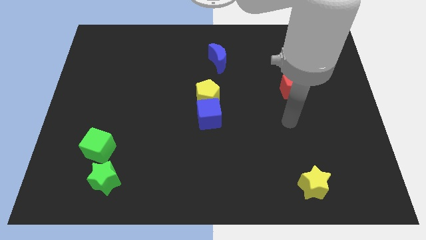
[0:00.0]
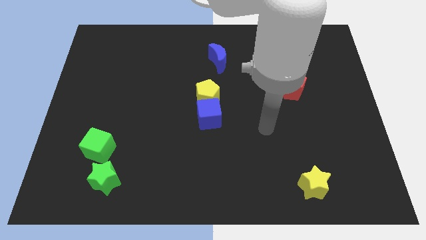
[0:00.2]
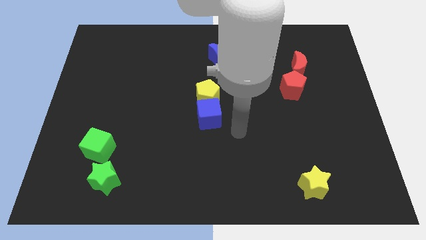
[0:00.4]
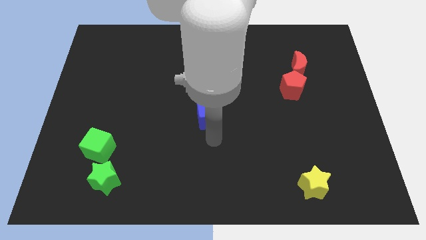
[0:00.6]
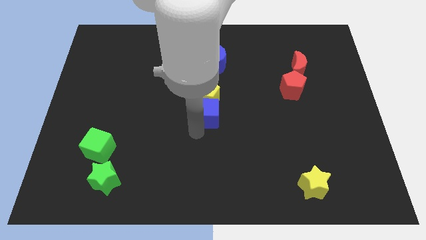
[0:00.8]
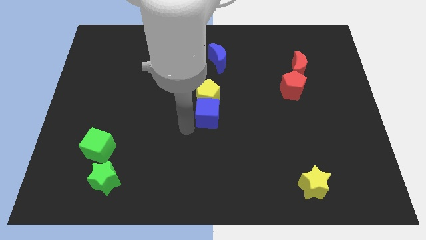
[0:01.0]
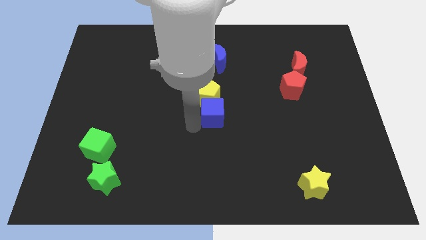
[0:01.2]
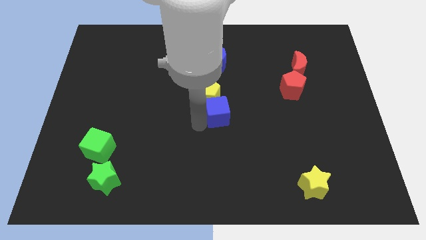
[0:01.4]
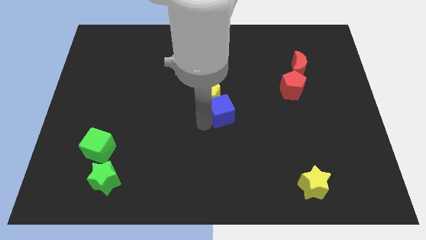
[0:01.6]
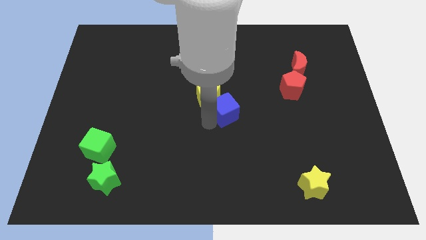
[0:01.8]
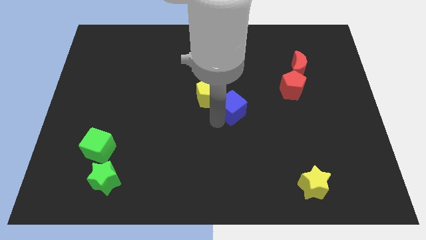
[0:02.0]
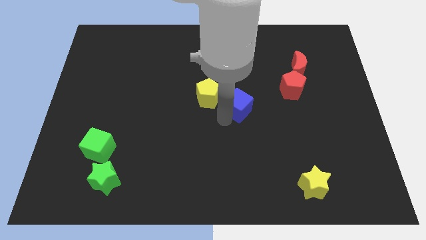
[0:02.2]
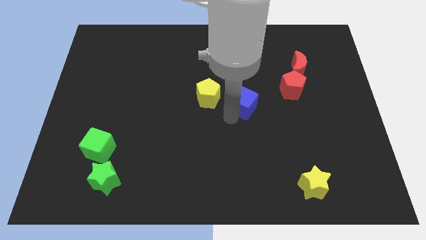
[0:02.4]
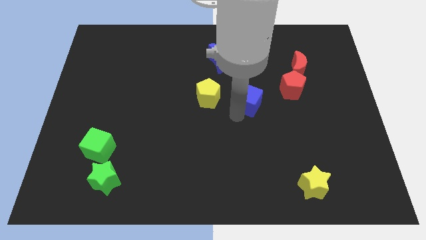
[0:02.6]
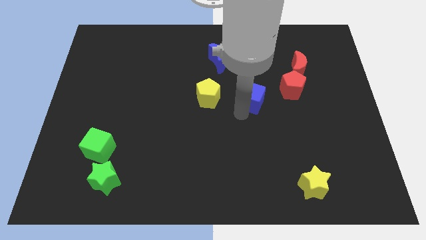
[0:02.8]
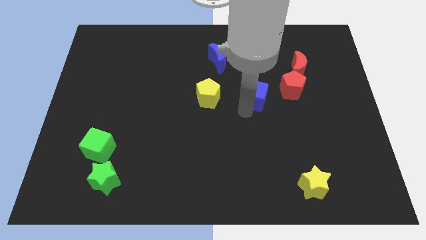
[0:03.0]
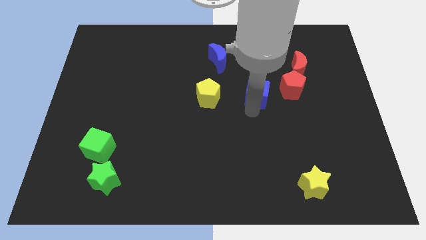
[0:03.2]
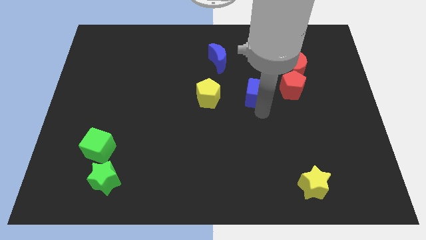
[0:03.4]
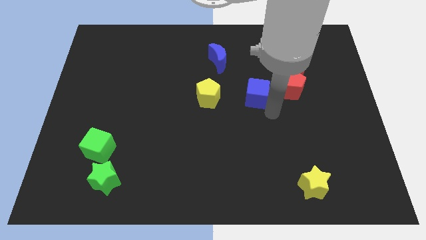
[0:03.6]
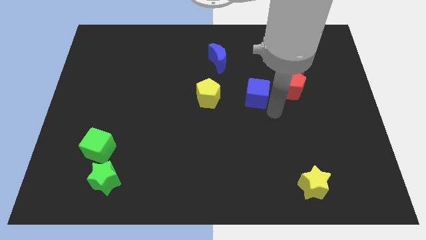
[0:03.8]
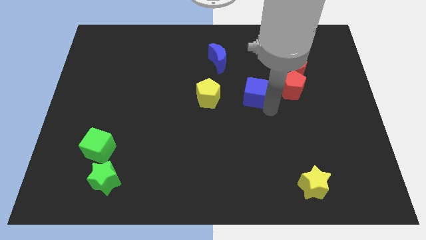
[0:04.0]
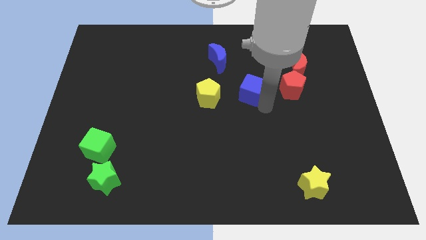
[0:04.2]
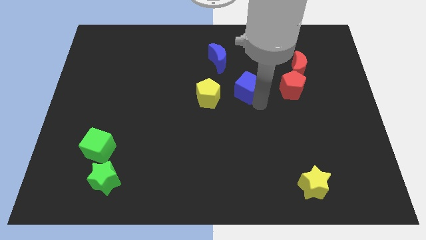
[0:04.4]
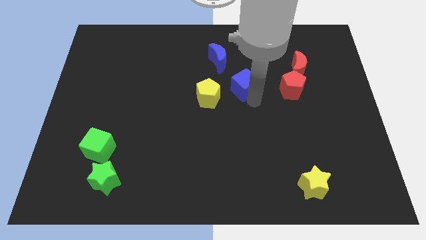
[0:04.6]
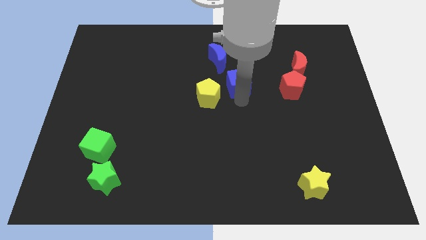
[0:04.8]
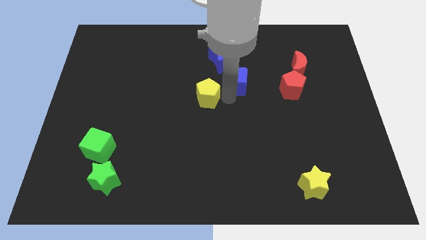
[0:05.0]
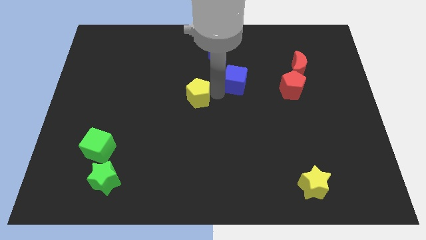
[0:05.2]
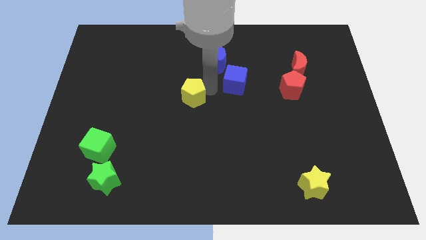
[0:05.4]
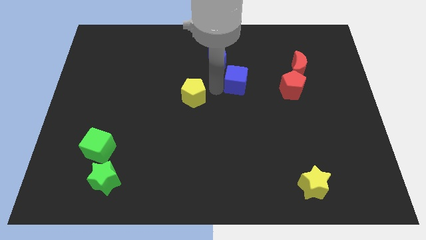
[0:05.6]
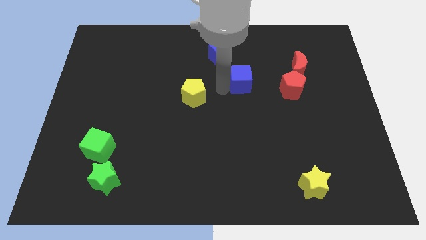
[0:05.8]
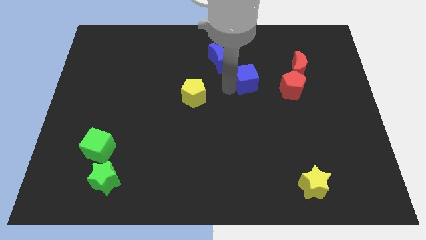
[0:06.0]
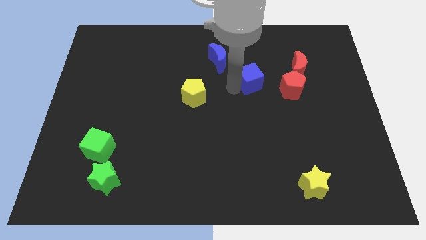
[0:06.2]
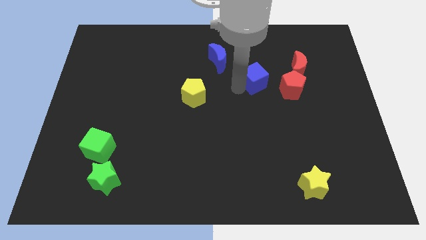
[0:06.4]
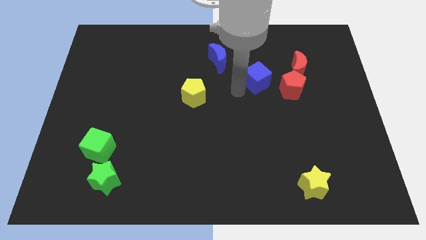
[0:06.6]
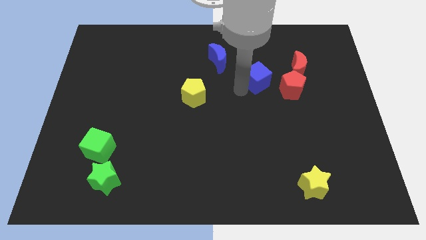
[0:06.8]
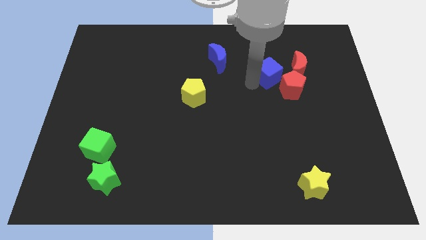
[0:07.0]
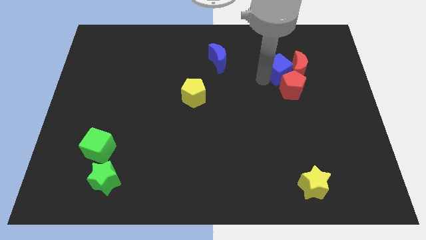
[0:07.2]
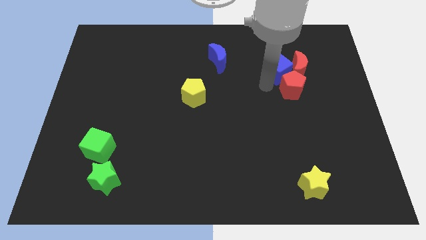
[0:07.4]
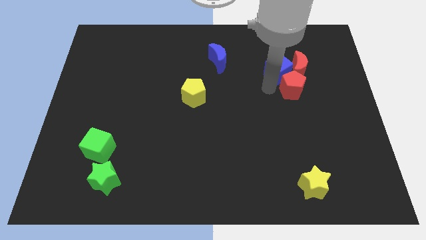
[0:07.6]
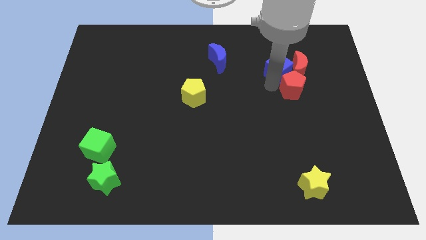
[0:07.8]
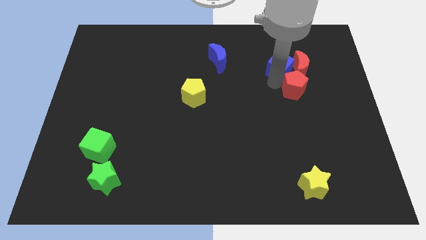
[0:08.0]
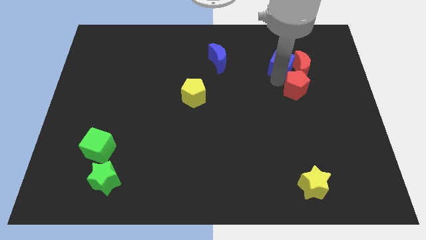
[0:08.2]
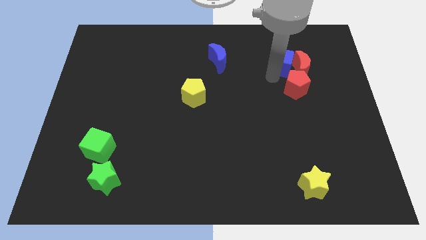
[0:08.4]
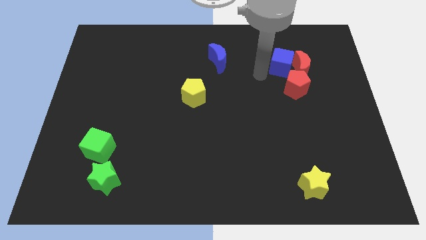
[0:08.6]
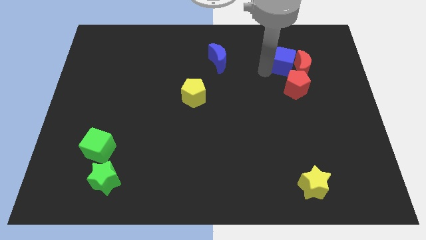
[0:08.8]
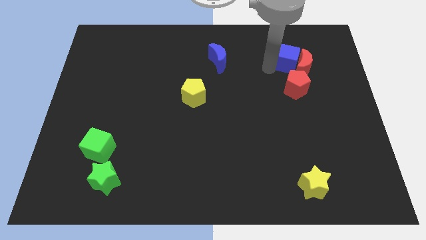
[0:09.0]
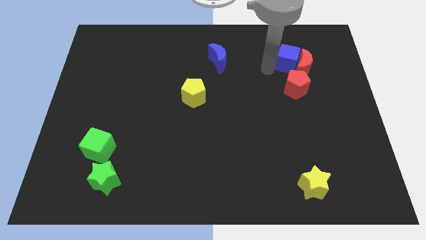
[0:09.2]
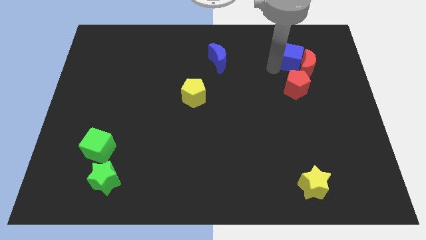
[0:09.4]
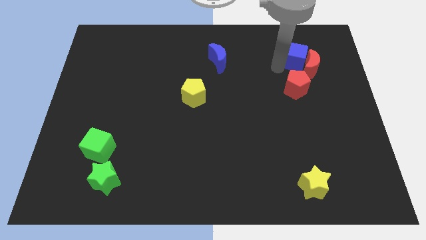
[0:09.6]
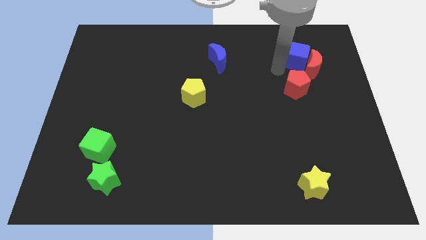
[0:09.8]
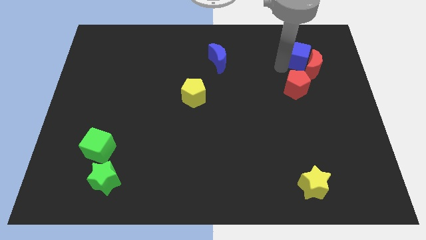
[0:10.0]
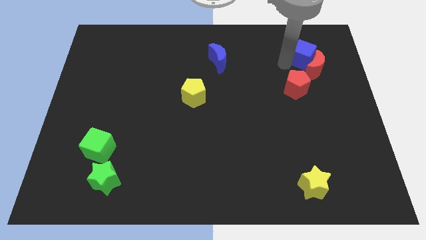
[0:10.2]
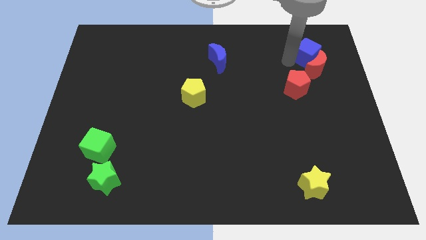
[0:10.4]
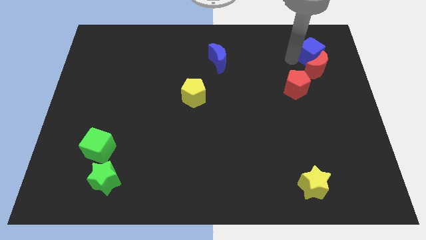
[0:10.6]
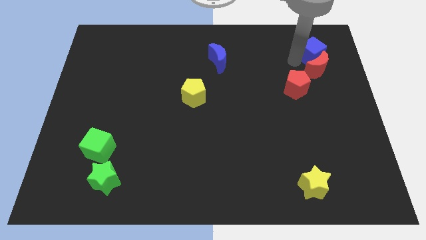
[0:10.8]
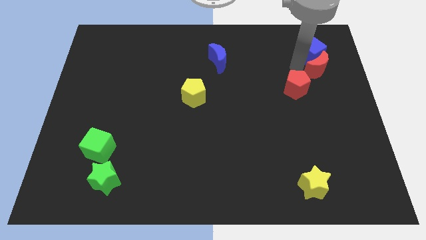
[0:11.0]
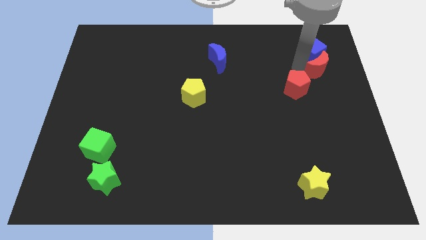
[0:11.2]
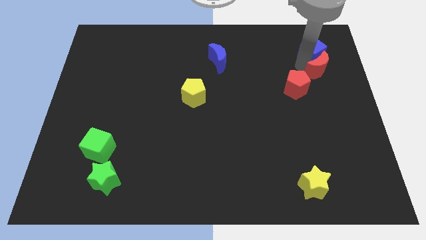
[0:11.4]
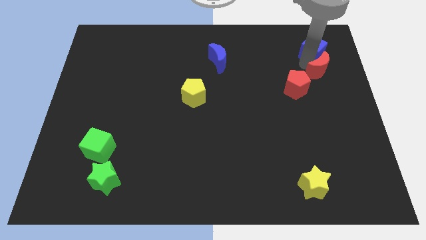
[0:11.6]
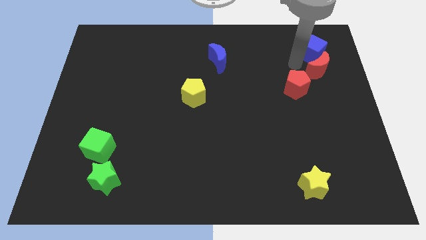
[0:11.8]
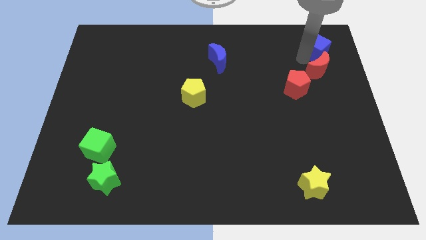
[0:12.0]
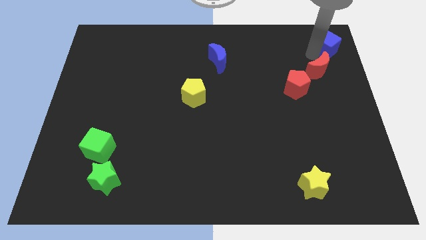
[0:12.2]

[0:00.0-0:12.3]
slide the blue cube to the top right
